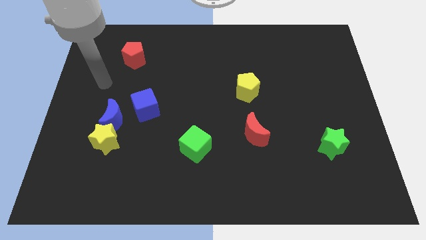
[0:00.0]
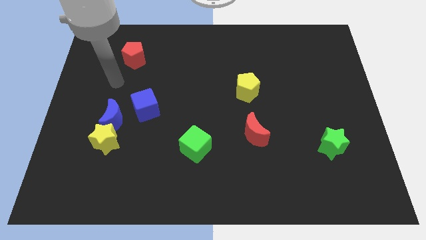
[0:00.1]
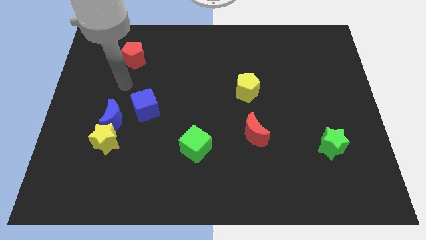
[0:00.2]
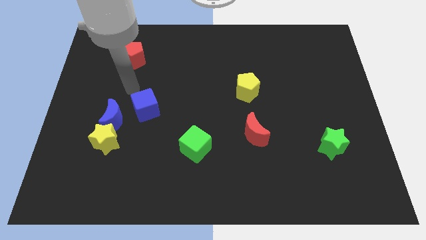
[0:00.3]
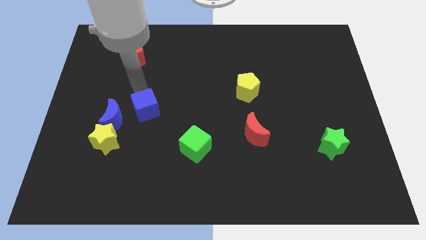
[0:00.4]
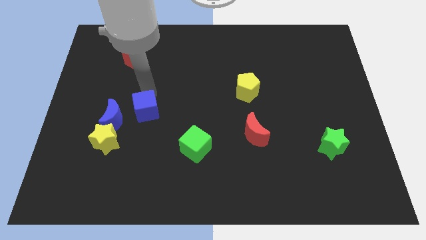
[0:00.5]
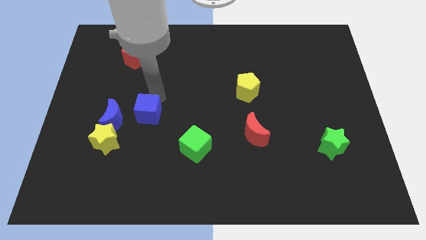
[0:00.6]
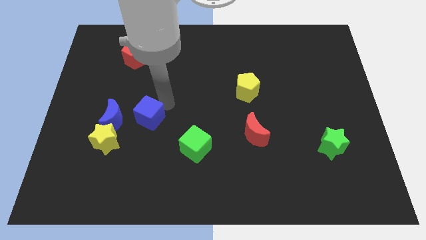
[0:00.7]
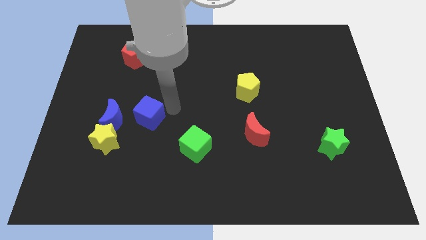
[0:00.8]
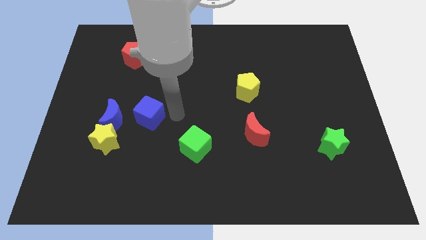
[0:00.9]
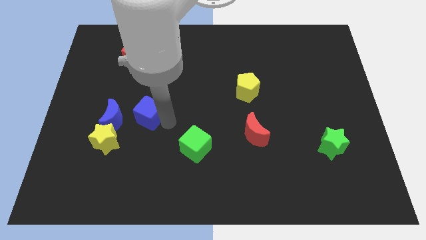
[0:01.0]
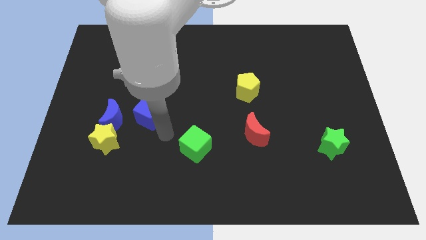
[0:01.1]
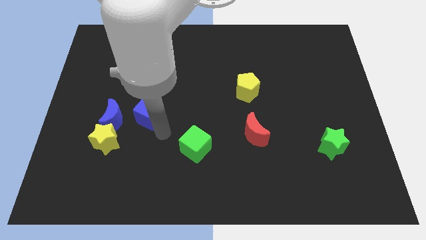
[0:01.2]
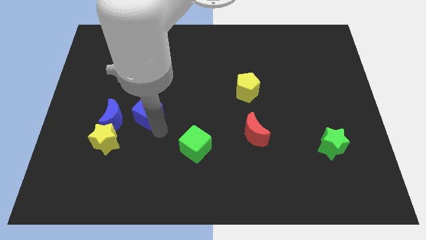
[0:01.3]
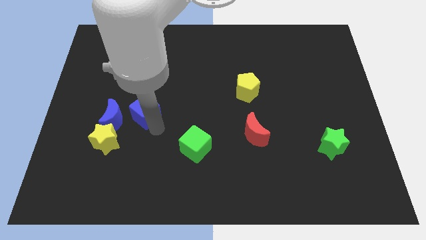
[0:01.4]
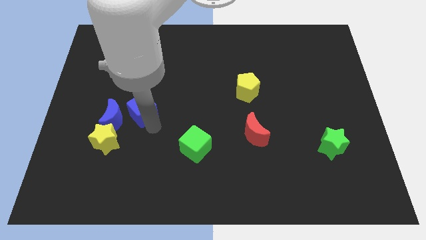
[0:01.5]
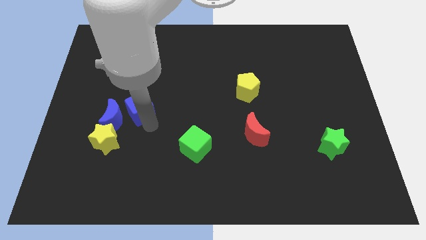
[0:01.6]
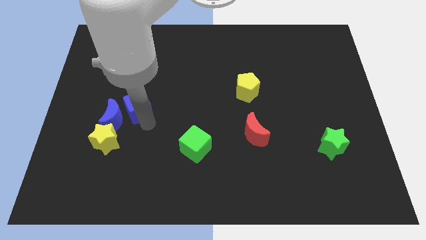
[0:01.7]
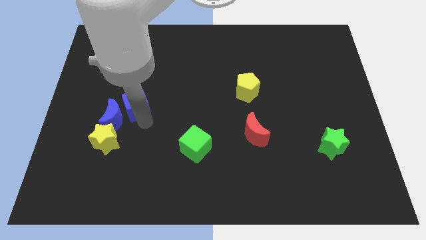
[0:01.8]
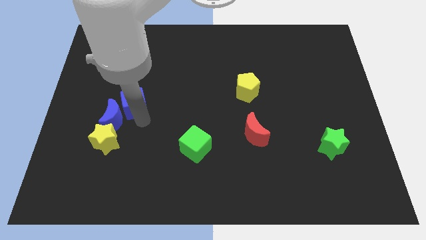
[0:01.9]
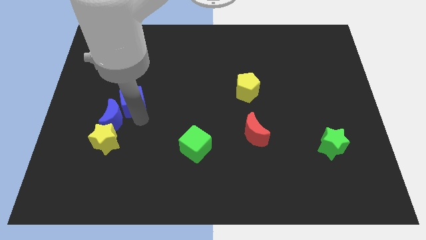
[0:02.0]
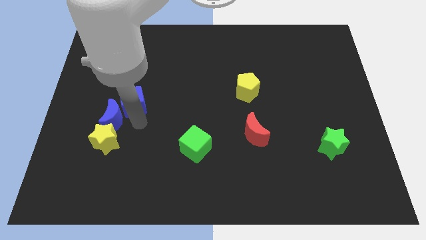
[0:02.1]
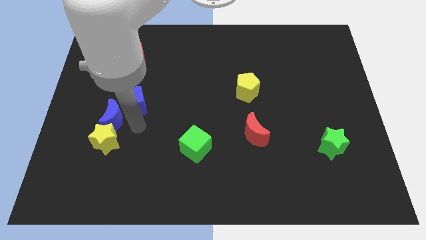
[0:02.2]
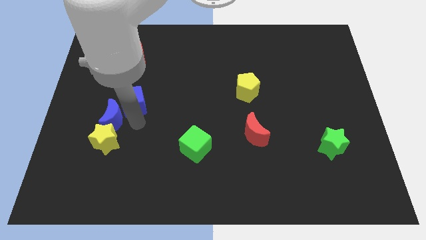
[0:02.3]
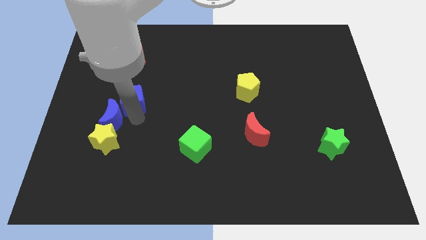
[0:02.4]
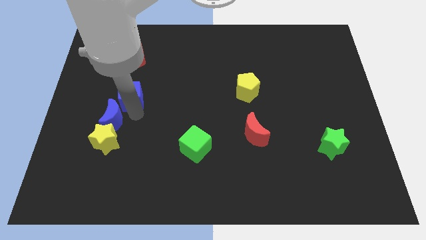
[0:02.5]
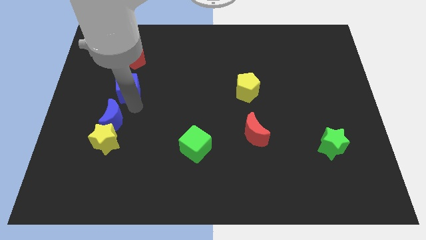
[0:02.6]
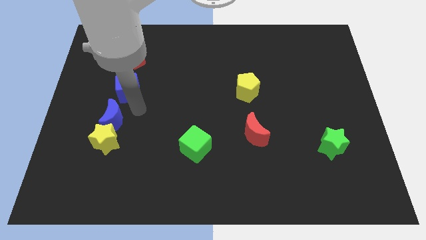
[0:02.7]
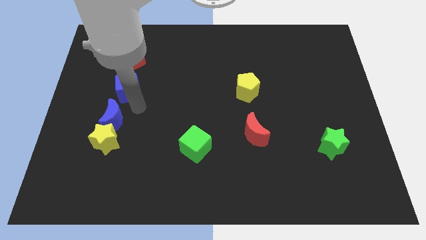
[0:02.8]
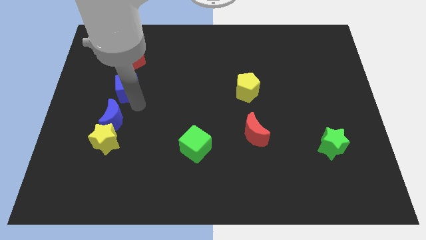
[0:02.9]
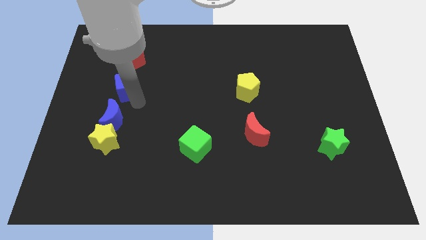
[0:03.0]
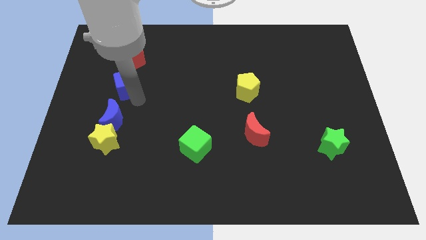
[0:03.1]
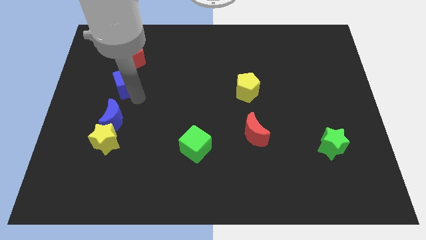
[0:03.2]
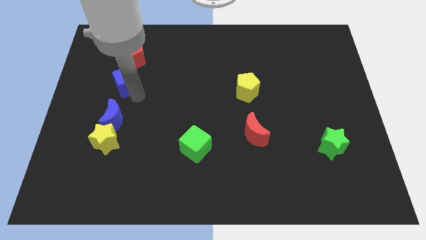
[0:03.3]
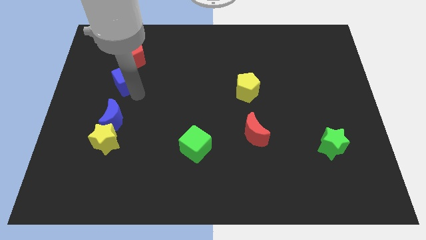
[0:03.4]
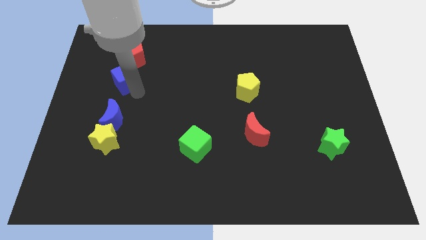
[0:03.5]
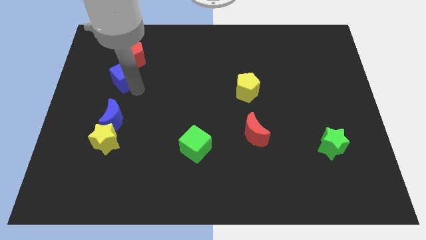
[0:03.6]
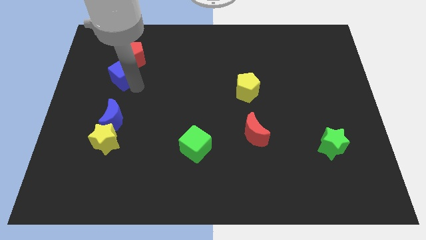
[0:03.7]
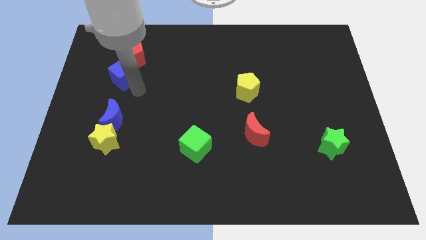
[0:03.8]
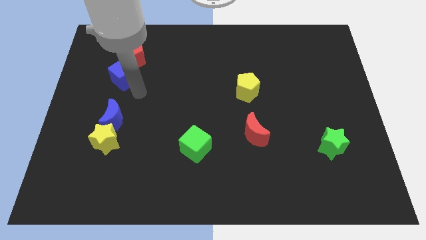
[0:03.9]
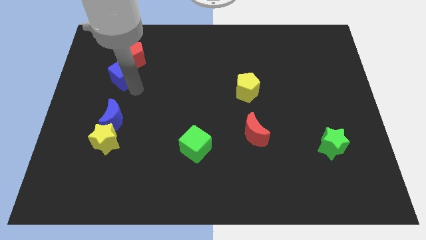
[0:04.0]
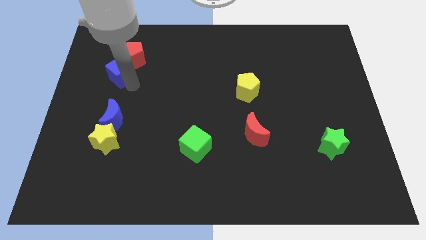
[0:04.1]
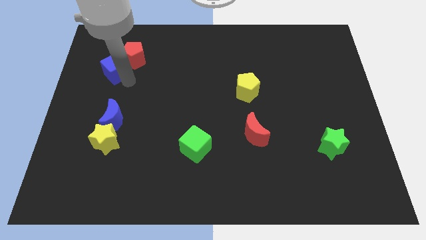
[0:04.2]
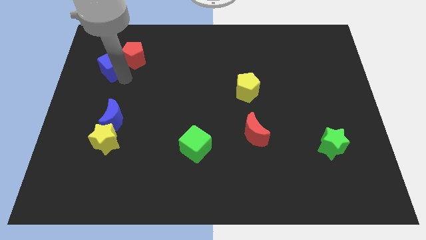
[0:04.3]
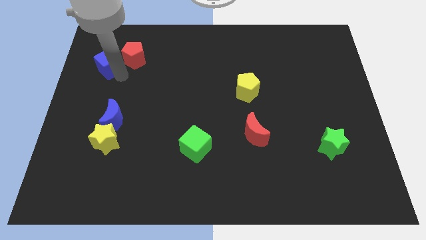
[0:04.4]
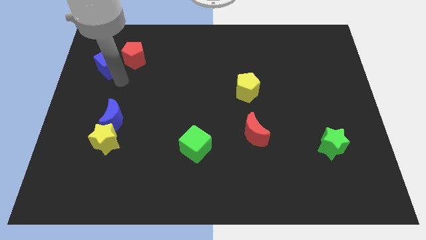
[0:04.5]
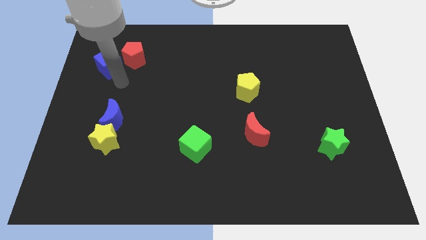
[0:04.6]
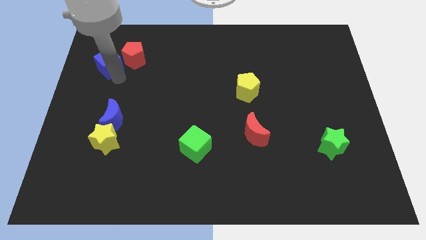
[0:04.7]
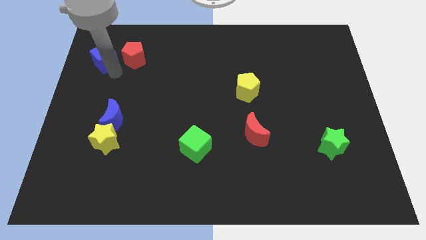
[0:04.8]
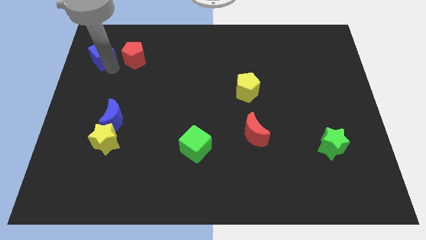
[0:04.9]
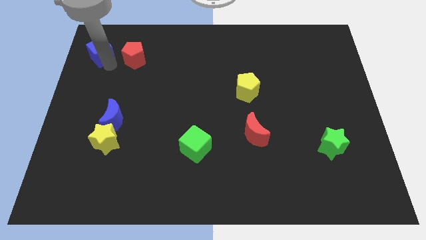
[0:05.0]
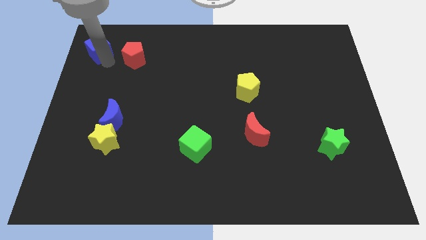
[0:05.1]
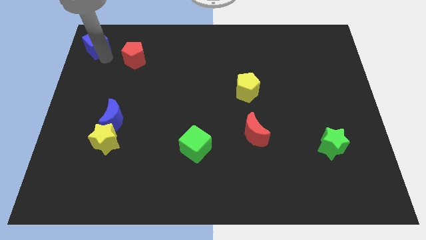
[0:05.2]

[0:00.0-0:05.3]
slide the blue cube to the upper left corner

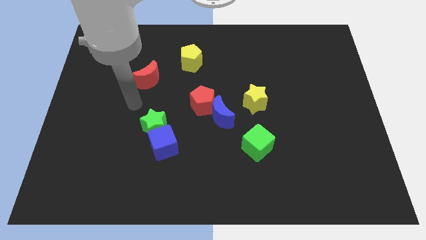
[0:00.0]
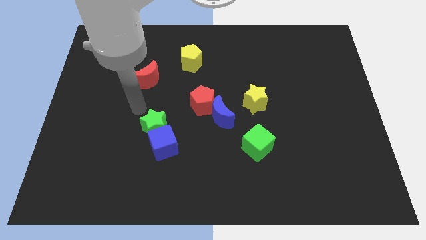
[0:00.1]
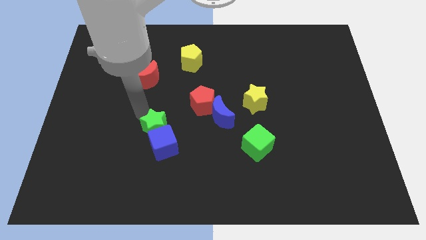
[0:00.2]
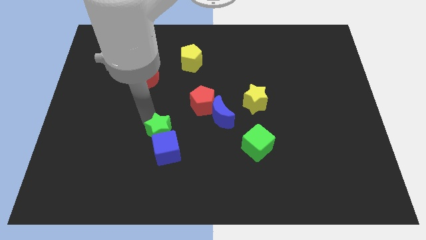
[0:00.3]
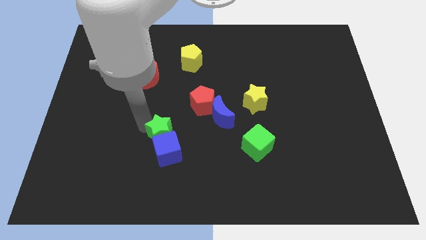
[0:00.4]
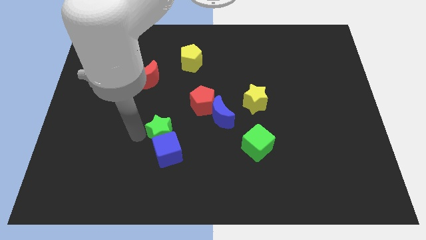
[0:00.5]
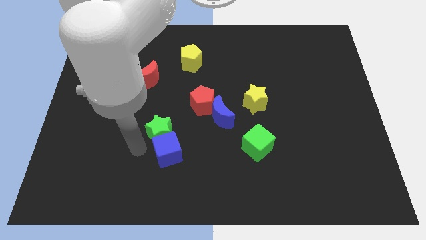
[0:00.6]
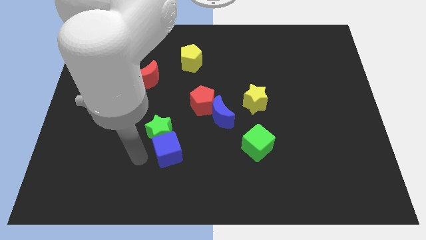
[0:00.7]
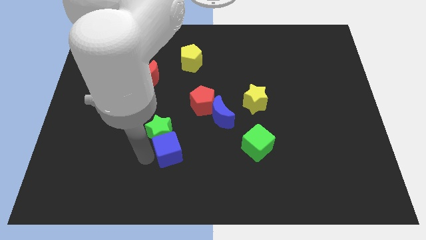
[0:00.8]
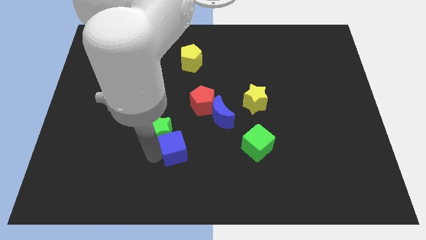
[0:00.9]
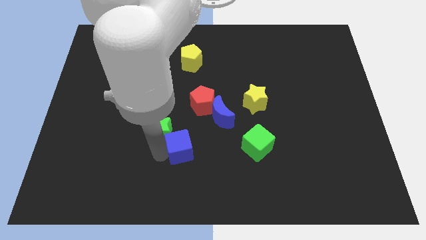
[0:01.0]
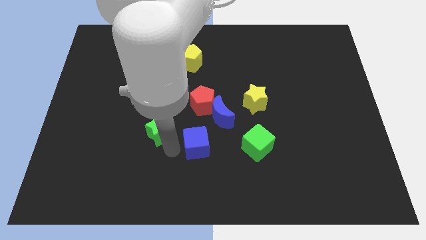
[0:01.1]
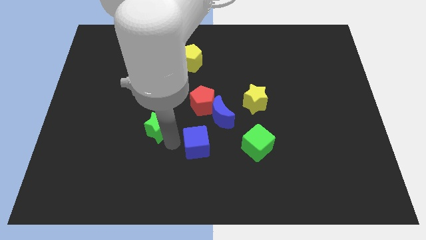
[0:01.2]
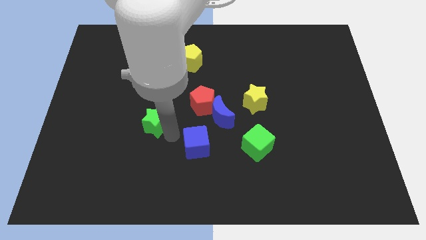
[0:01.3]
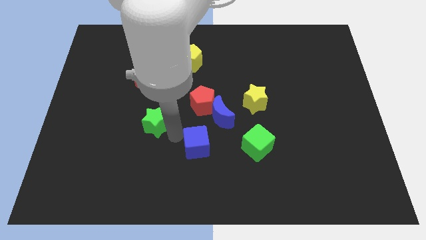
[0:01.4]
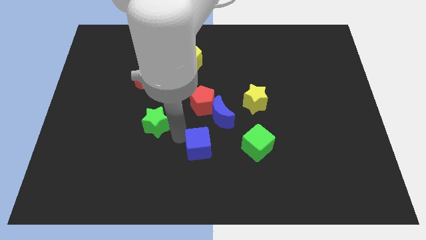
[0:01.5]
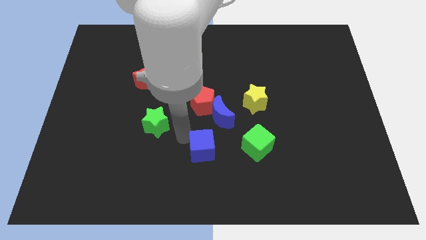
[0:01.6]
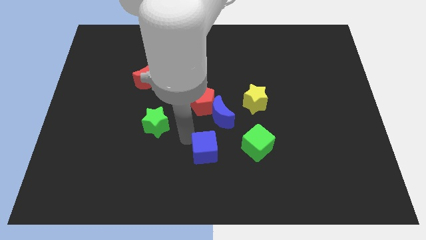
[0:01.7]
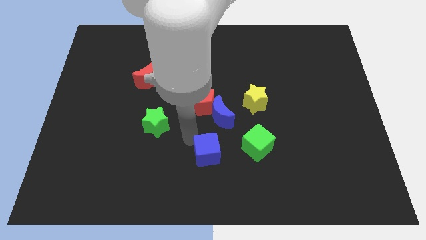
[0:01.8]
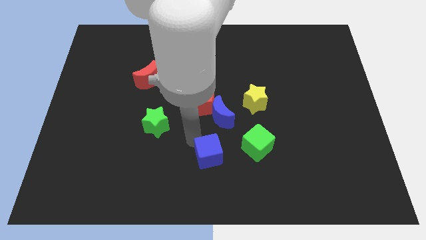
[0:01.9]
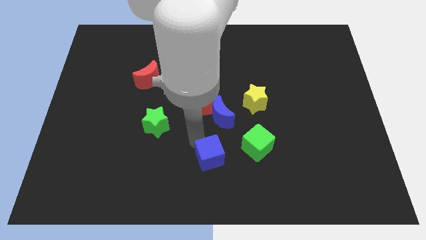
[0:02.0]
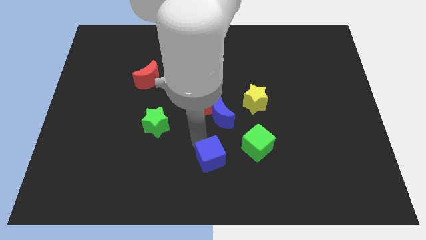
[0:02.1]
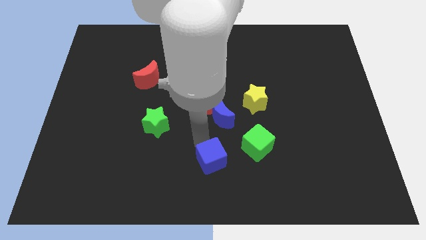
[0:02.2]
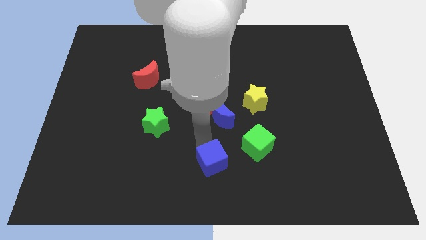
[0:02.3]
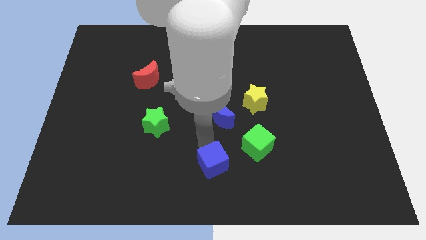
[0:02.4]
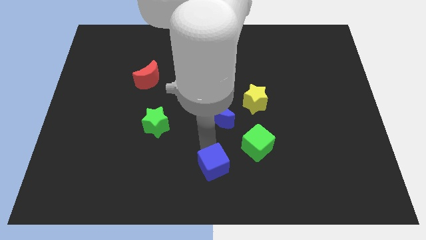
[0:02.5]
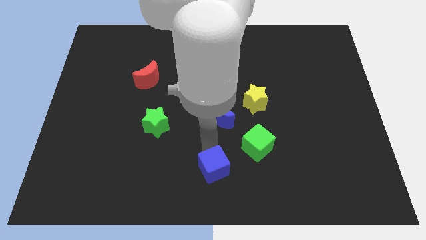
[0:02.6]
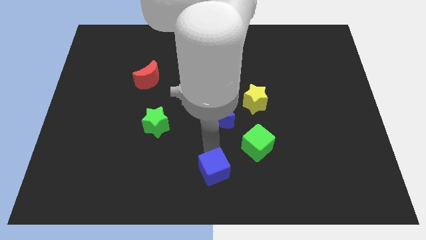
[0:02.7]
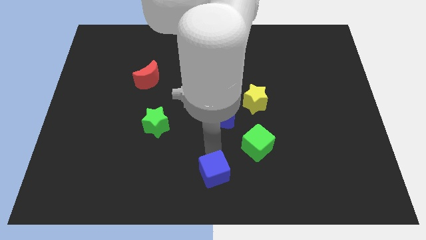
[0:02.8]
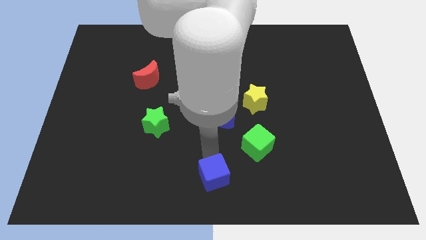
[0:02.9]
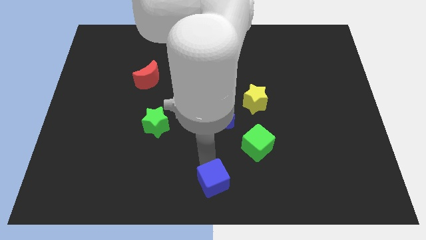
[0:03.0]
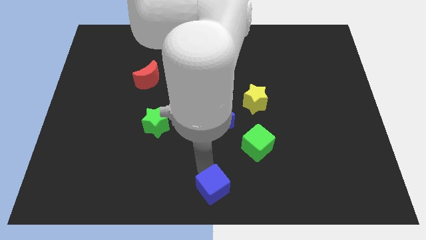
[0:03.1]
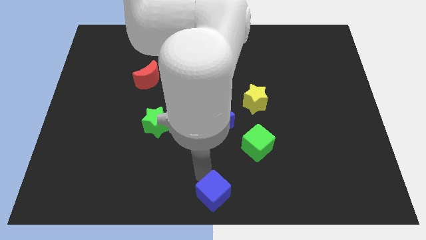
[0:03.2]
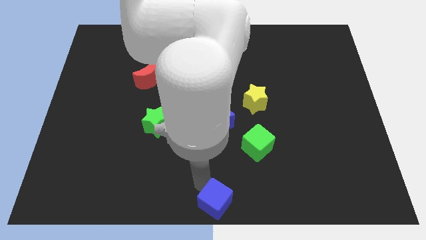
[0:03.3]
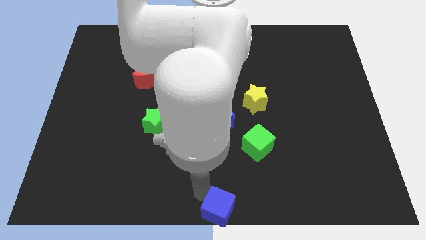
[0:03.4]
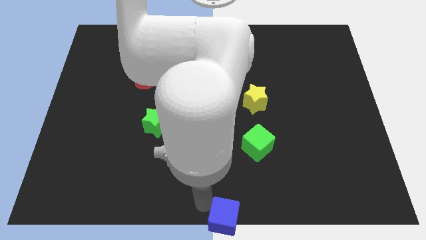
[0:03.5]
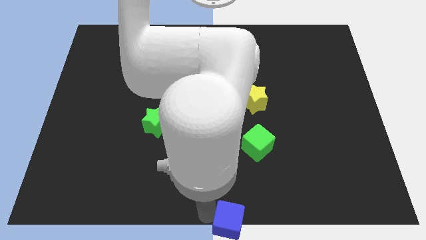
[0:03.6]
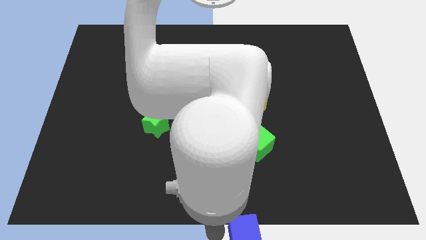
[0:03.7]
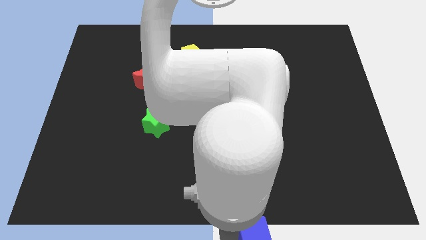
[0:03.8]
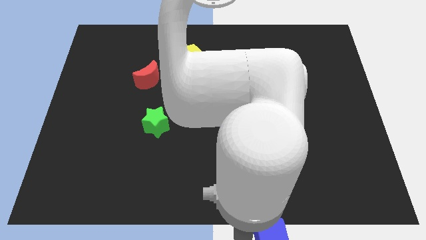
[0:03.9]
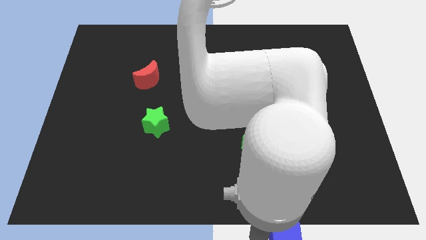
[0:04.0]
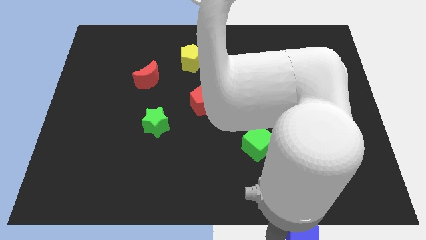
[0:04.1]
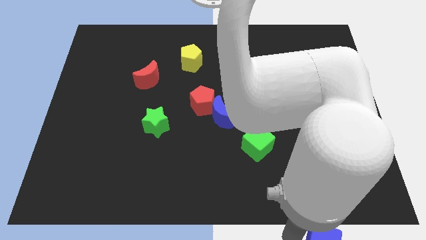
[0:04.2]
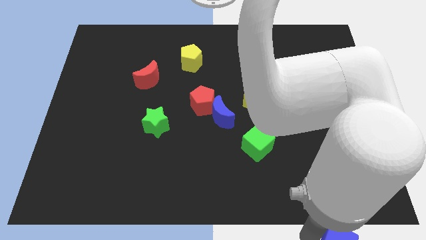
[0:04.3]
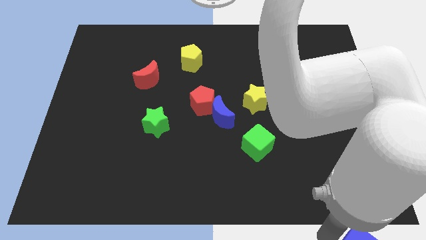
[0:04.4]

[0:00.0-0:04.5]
put the blue cube to the bottom right corner
